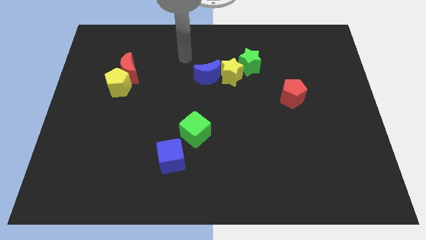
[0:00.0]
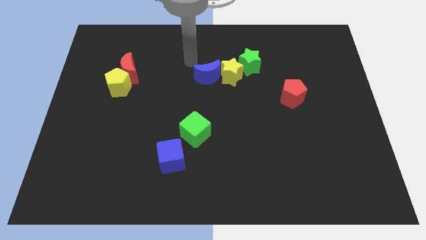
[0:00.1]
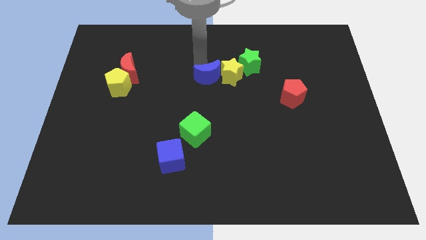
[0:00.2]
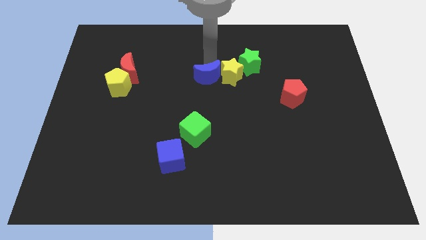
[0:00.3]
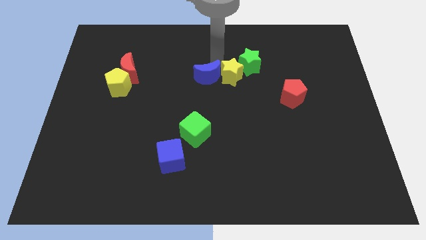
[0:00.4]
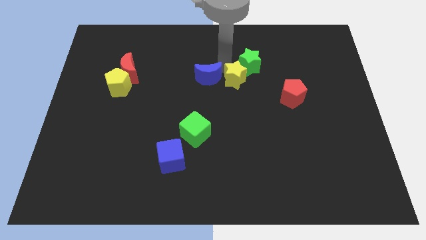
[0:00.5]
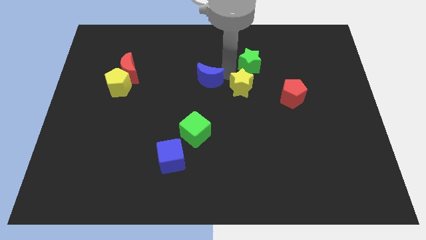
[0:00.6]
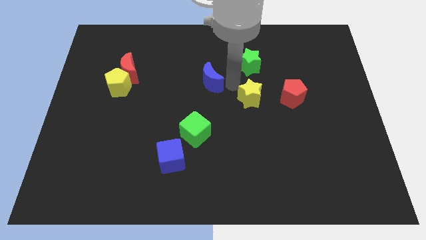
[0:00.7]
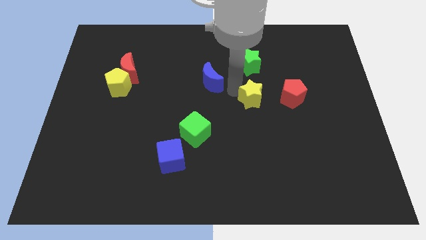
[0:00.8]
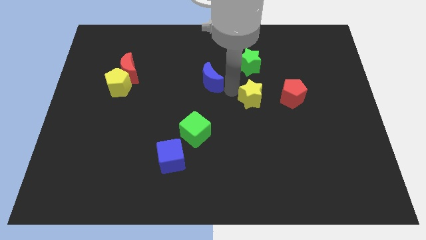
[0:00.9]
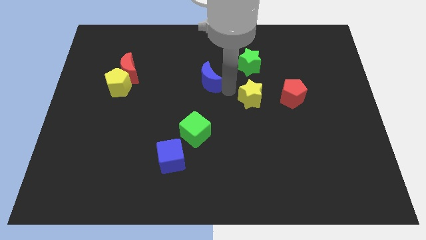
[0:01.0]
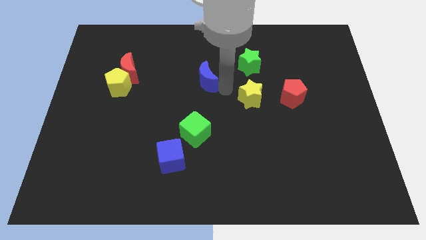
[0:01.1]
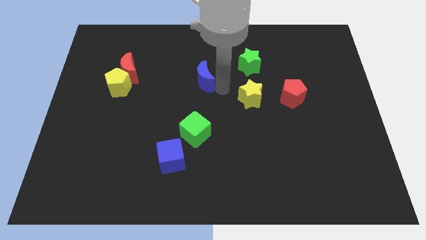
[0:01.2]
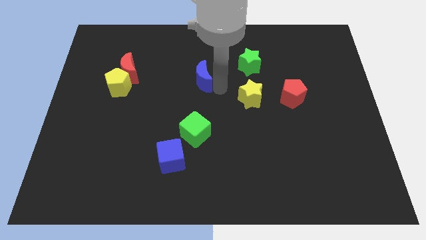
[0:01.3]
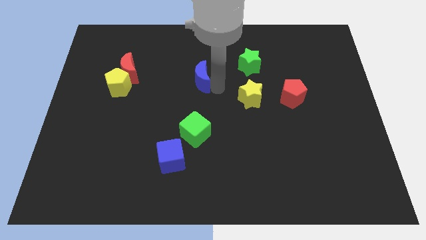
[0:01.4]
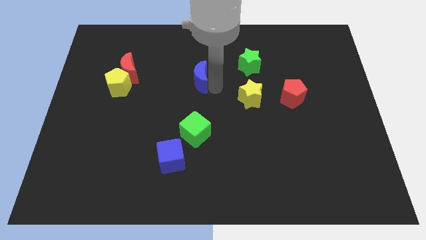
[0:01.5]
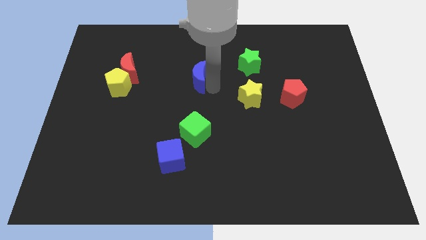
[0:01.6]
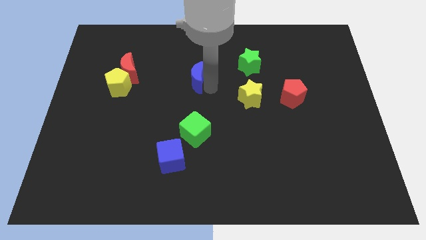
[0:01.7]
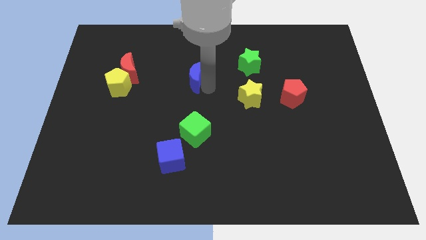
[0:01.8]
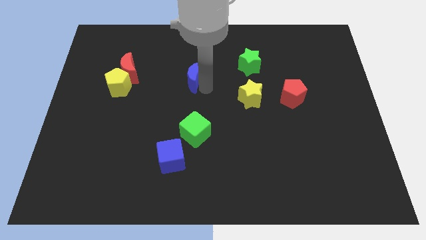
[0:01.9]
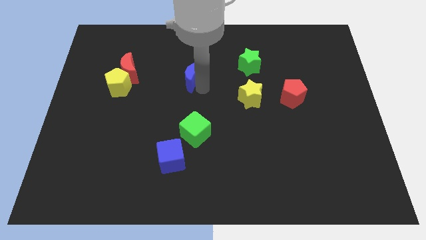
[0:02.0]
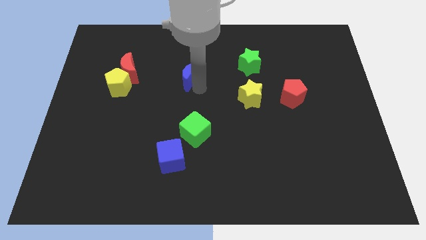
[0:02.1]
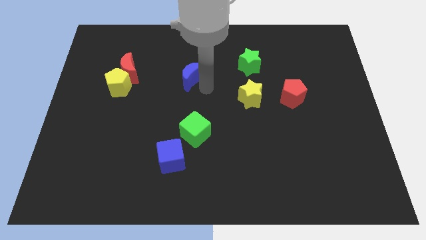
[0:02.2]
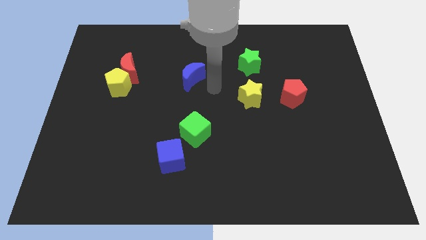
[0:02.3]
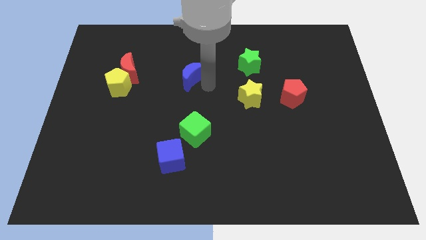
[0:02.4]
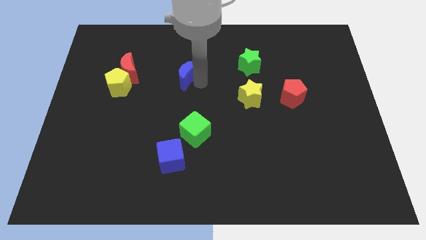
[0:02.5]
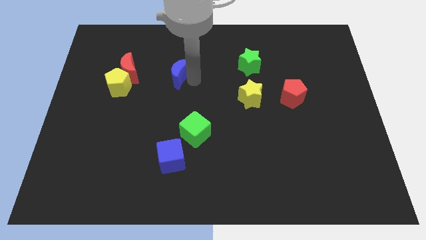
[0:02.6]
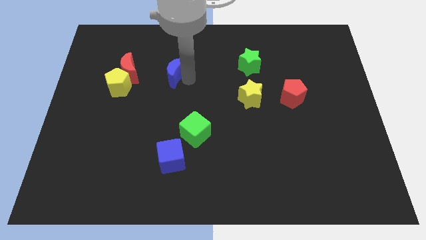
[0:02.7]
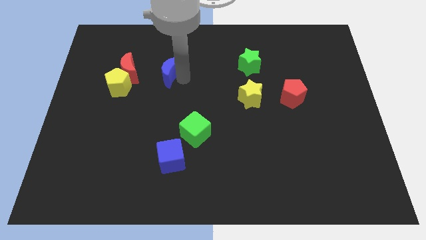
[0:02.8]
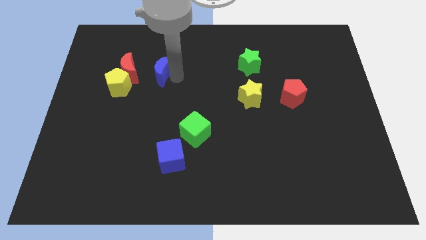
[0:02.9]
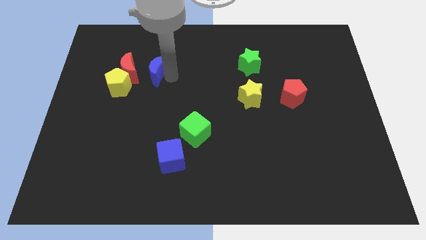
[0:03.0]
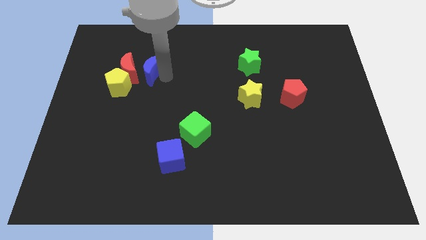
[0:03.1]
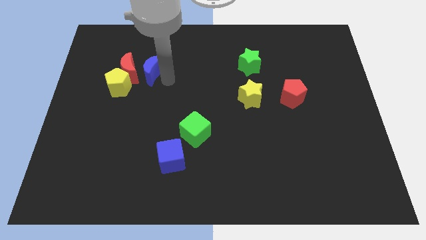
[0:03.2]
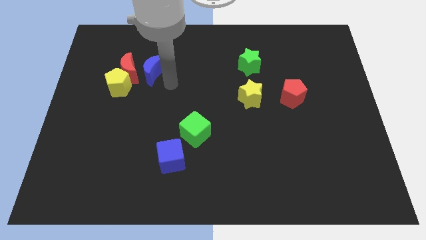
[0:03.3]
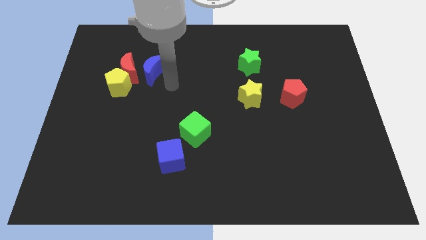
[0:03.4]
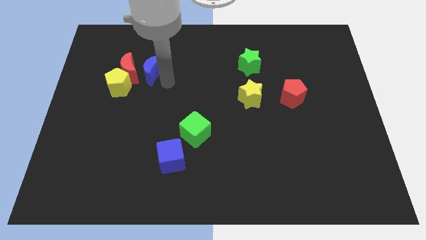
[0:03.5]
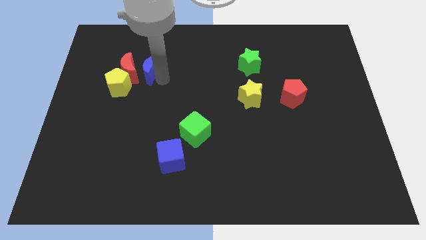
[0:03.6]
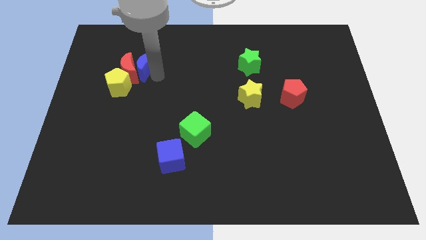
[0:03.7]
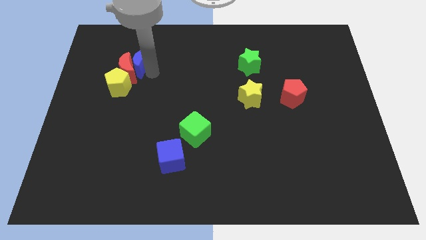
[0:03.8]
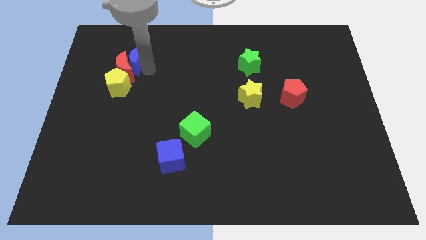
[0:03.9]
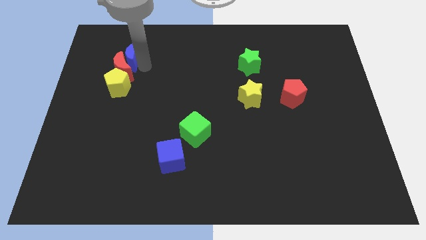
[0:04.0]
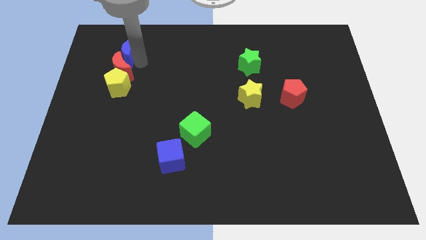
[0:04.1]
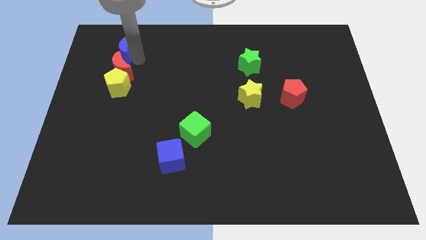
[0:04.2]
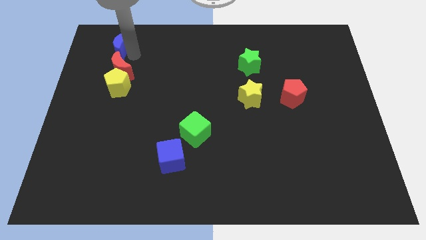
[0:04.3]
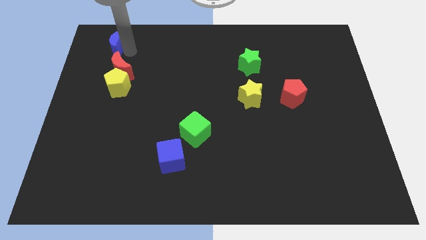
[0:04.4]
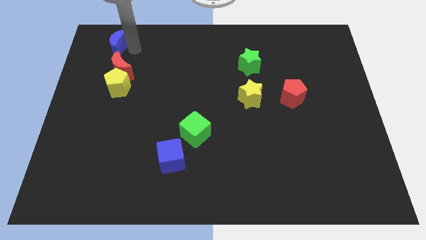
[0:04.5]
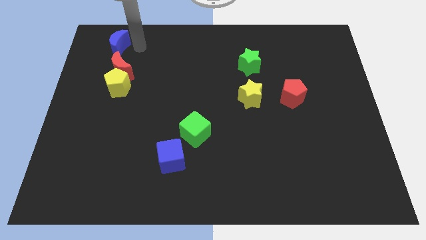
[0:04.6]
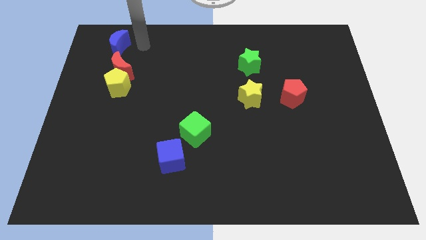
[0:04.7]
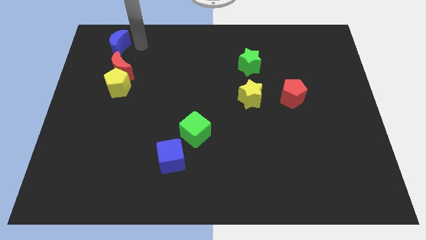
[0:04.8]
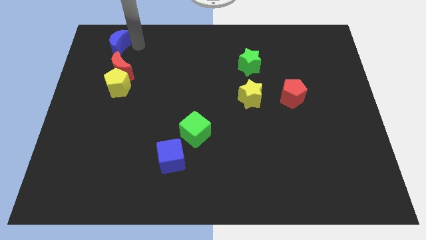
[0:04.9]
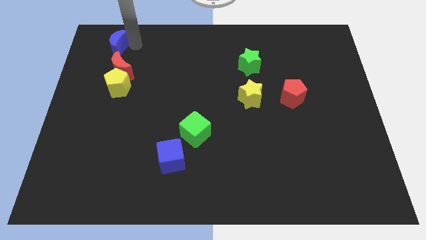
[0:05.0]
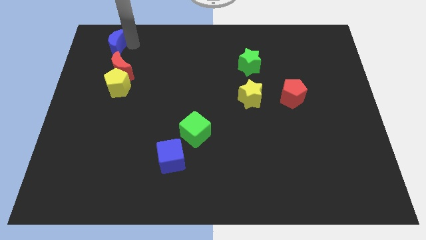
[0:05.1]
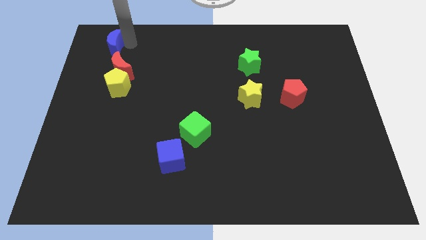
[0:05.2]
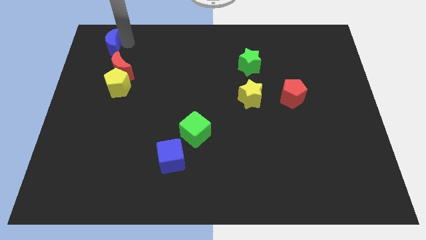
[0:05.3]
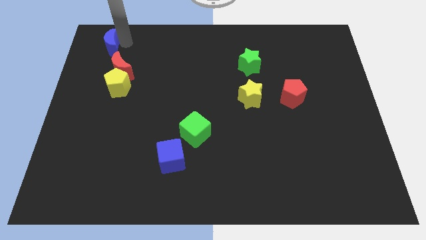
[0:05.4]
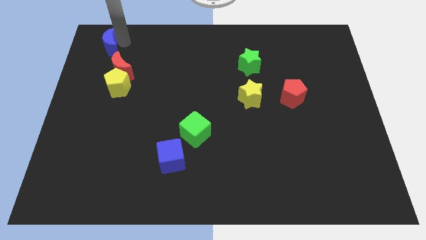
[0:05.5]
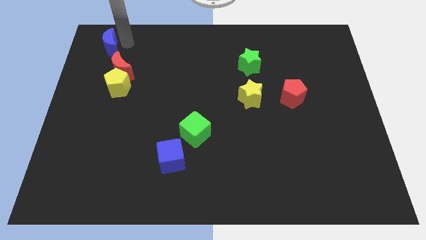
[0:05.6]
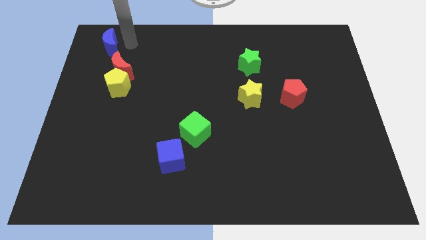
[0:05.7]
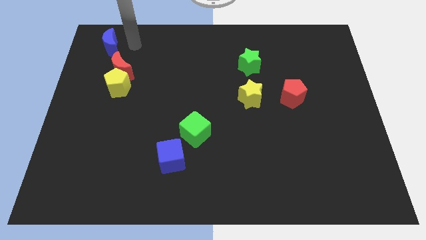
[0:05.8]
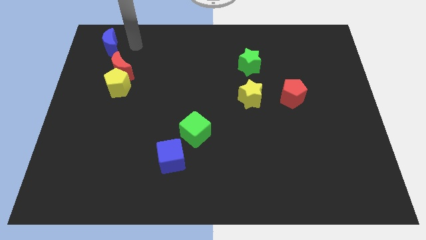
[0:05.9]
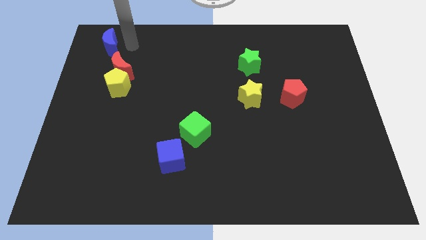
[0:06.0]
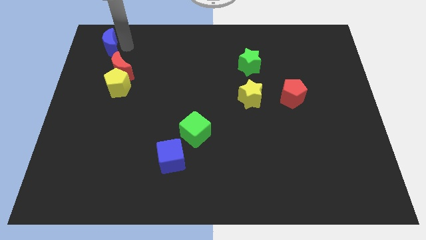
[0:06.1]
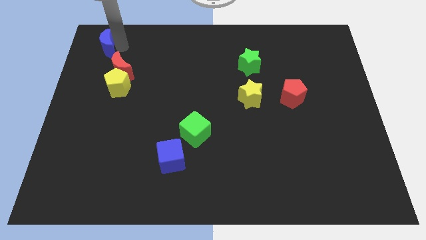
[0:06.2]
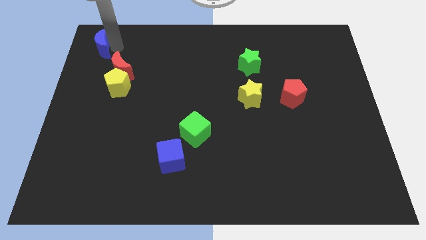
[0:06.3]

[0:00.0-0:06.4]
slide the blue moon to the top left
